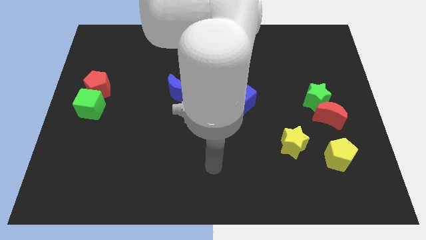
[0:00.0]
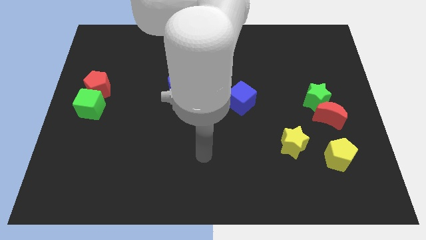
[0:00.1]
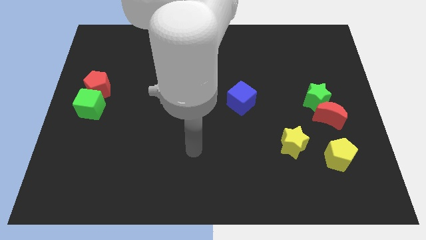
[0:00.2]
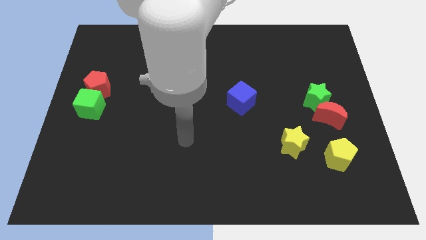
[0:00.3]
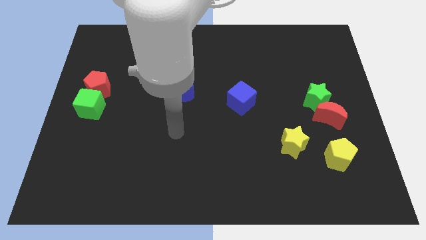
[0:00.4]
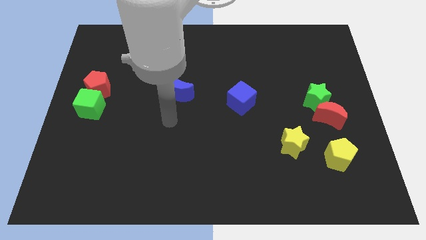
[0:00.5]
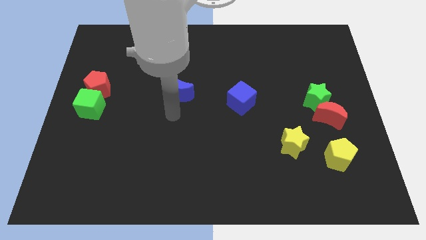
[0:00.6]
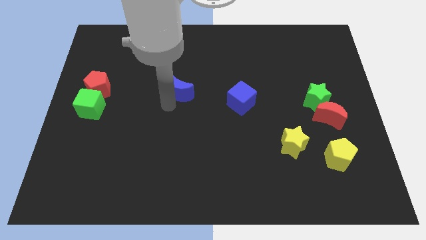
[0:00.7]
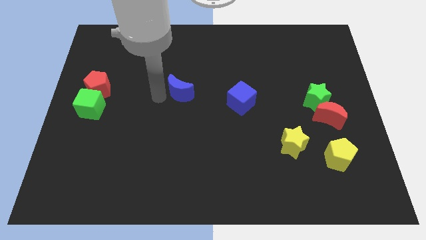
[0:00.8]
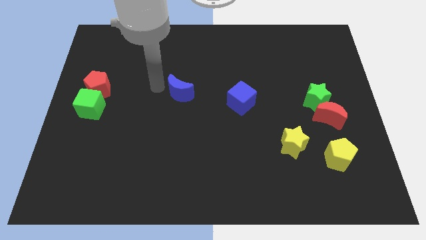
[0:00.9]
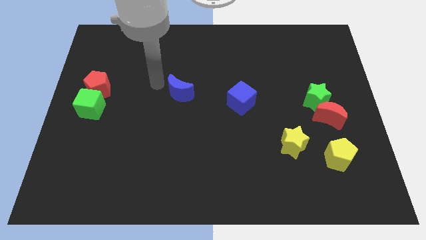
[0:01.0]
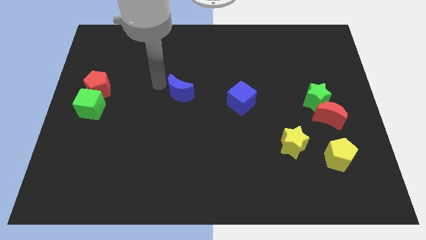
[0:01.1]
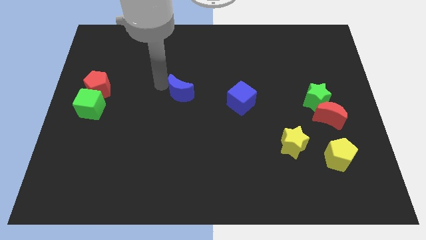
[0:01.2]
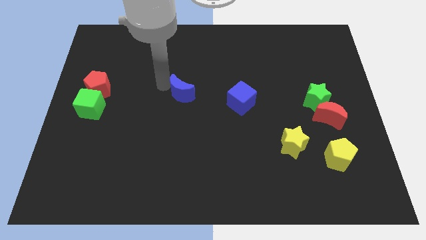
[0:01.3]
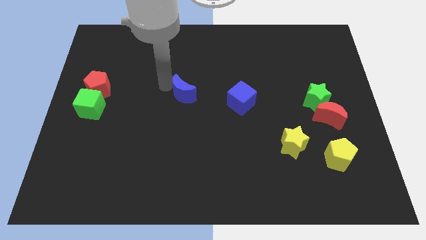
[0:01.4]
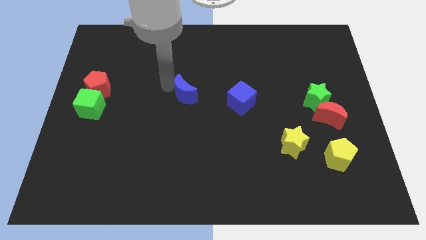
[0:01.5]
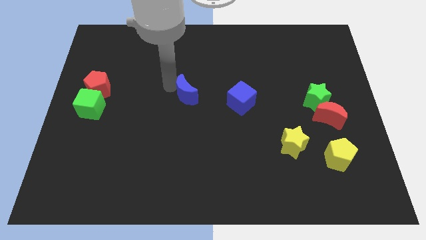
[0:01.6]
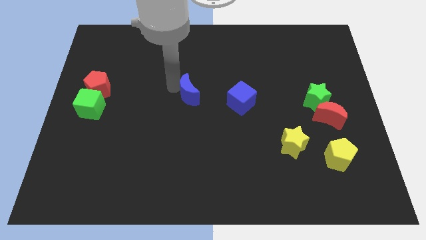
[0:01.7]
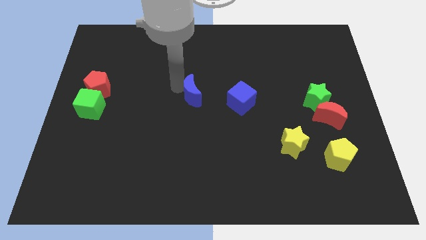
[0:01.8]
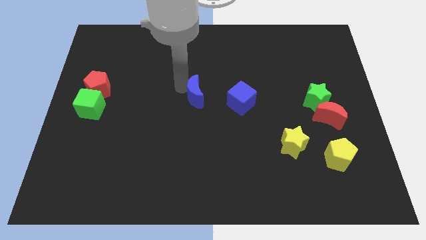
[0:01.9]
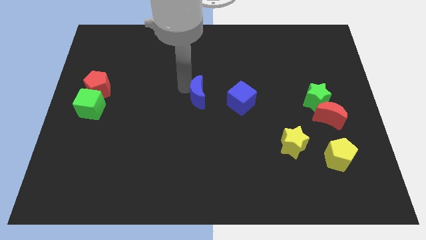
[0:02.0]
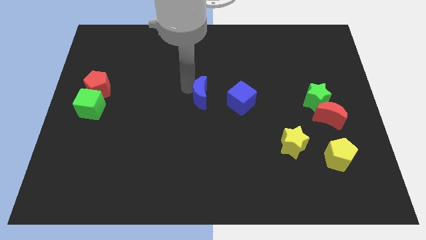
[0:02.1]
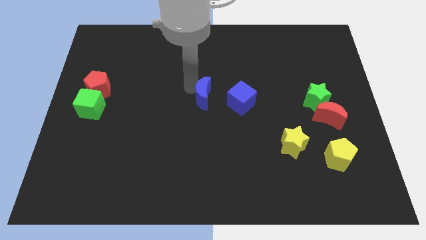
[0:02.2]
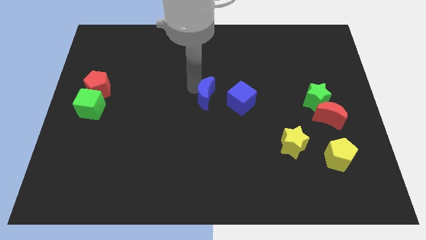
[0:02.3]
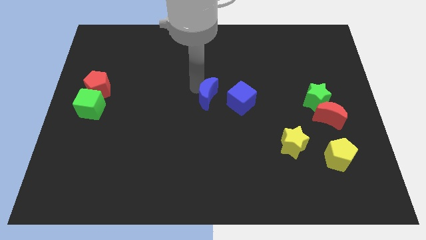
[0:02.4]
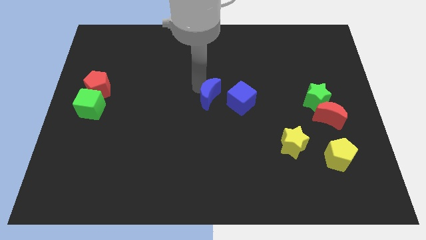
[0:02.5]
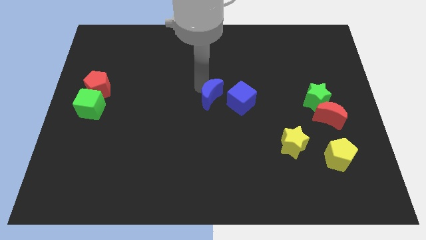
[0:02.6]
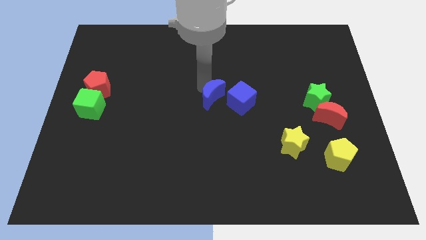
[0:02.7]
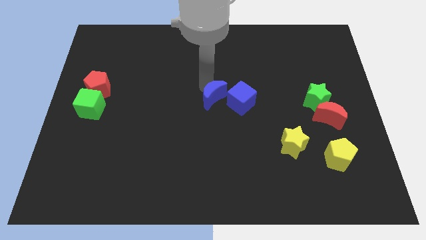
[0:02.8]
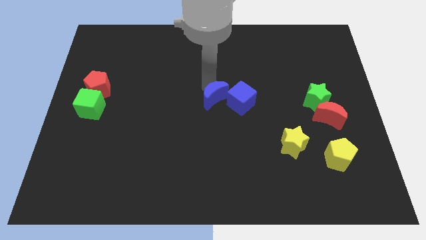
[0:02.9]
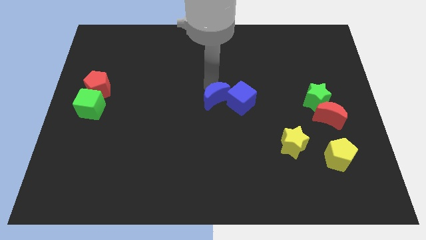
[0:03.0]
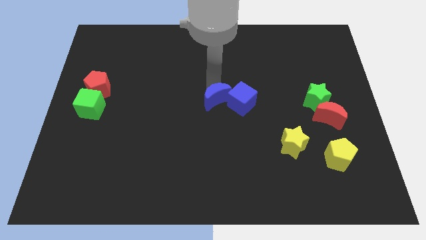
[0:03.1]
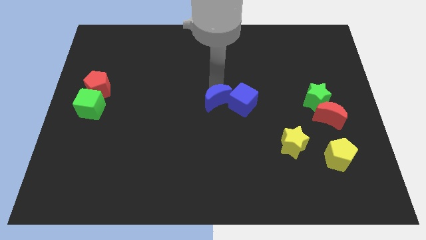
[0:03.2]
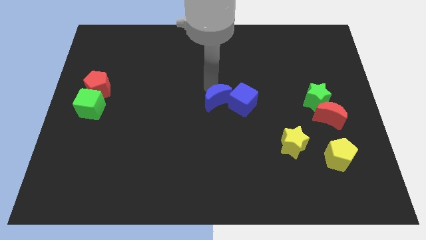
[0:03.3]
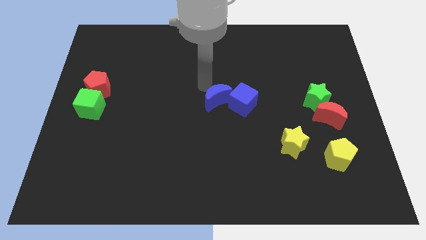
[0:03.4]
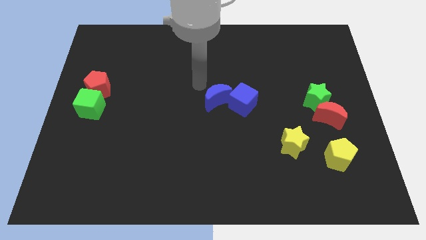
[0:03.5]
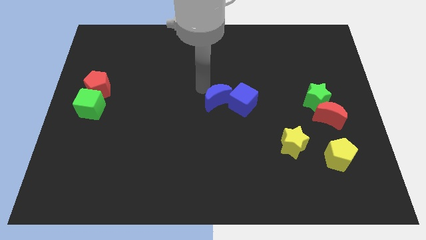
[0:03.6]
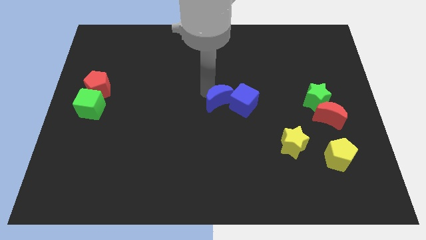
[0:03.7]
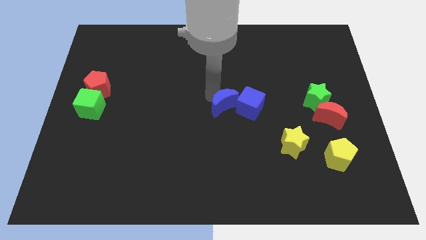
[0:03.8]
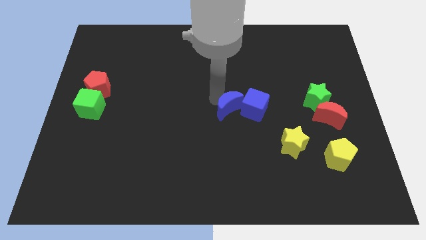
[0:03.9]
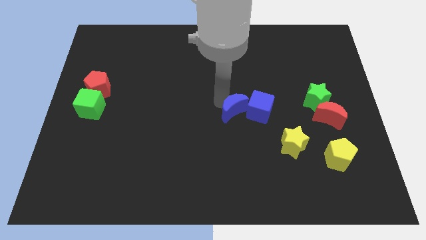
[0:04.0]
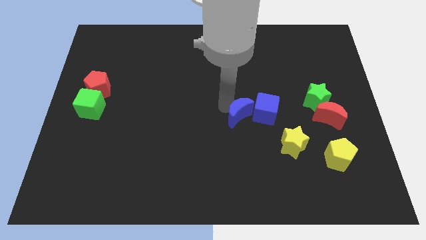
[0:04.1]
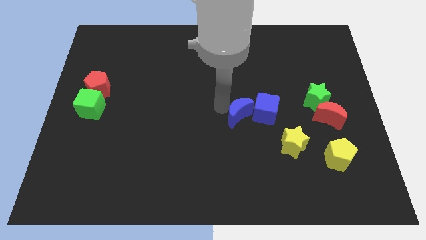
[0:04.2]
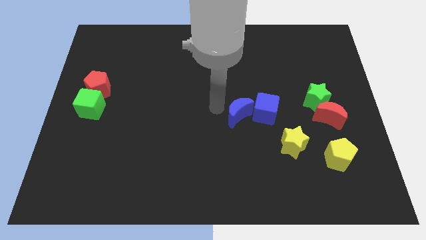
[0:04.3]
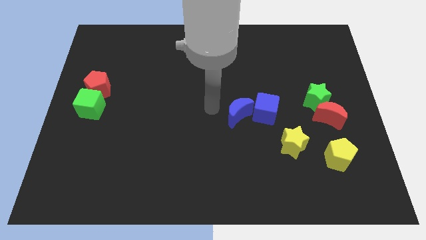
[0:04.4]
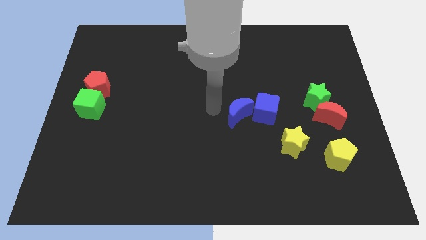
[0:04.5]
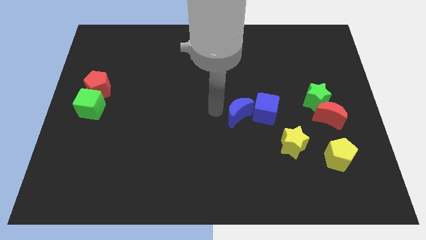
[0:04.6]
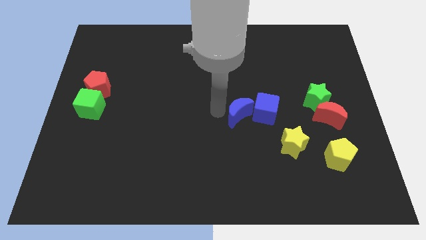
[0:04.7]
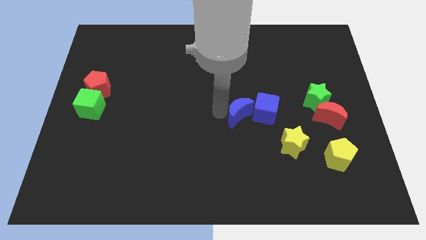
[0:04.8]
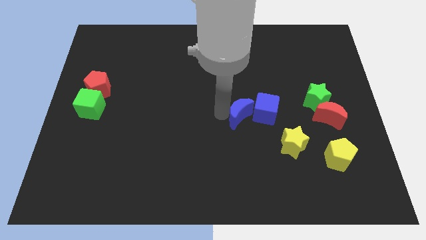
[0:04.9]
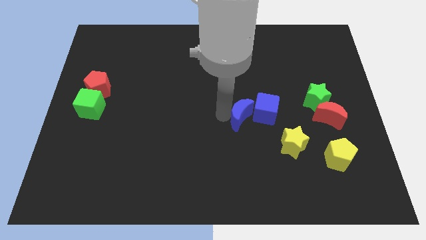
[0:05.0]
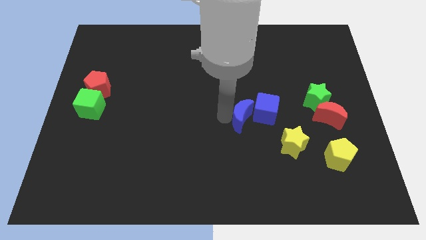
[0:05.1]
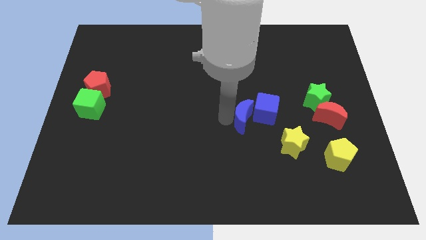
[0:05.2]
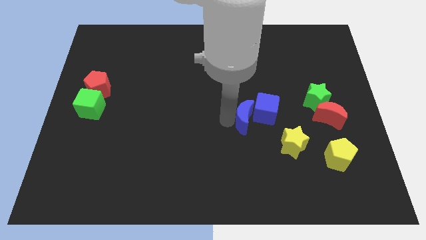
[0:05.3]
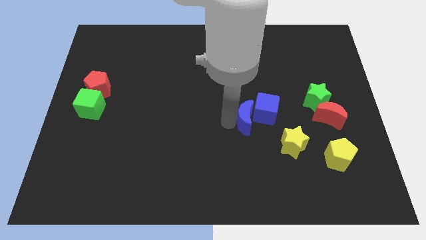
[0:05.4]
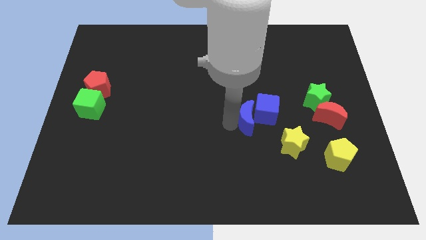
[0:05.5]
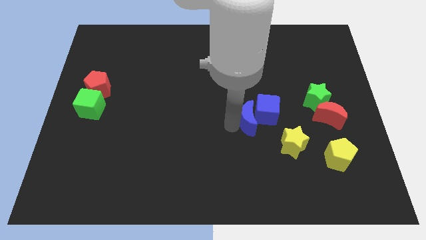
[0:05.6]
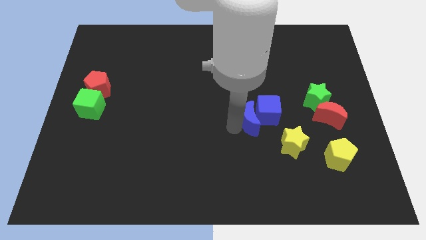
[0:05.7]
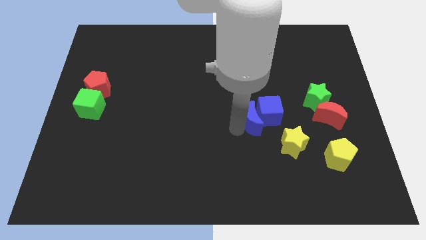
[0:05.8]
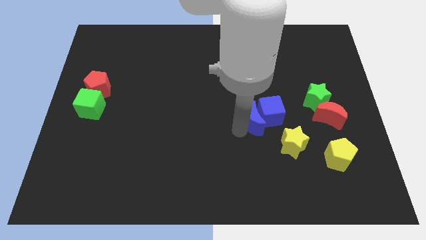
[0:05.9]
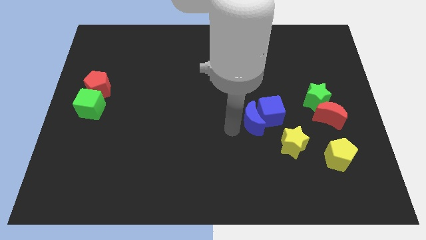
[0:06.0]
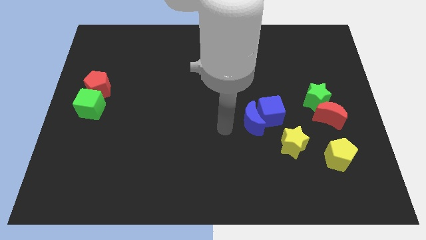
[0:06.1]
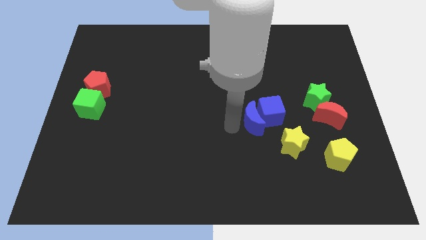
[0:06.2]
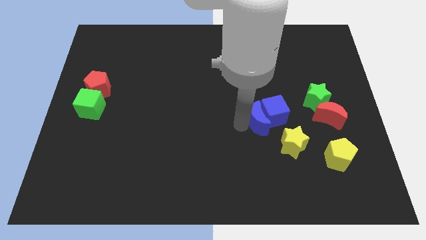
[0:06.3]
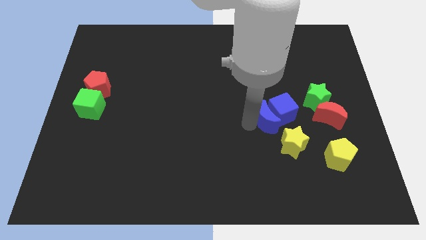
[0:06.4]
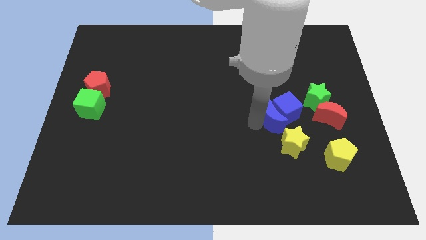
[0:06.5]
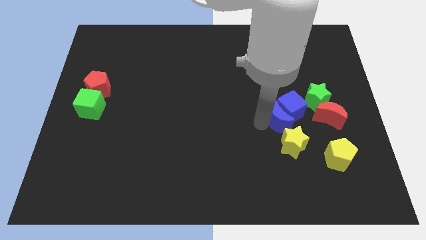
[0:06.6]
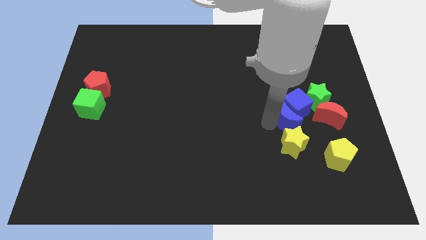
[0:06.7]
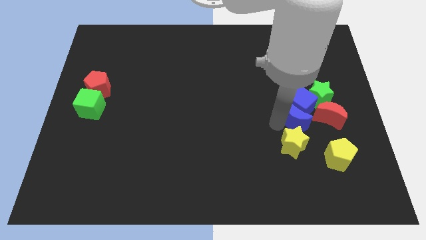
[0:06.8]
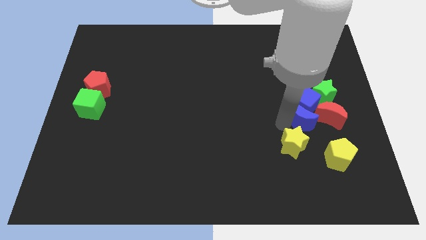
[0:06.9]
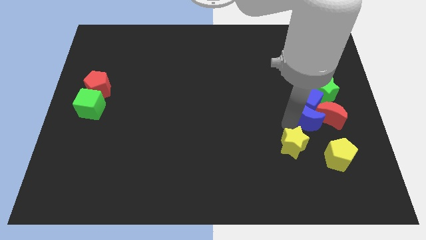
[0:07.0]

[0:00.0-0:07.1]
push the blue moon towards the red moon

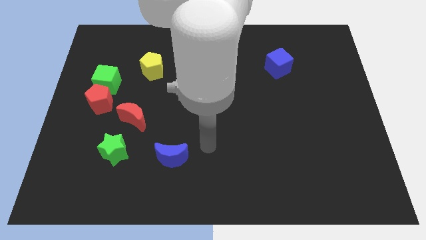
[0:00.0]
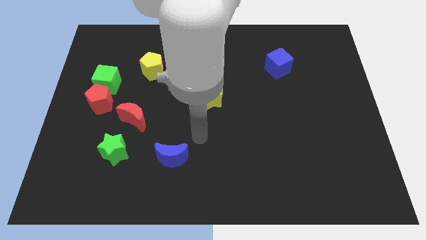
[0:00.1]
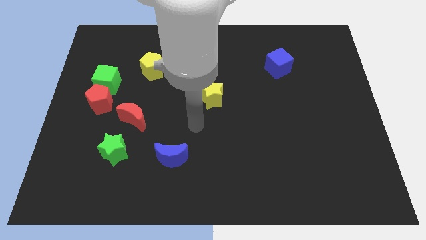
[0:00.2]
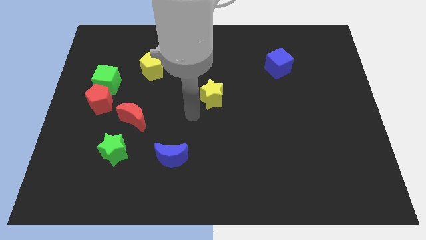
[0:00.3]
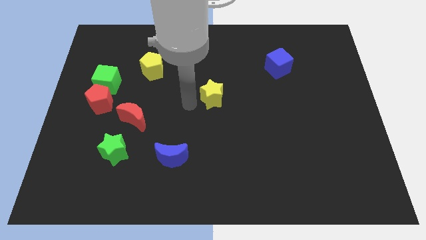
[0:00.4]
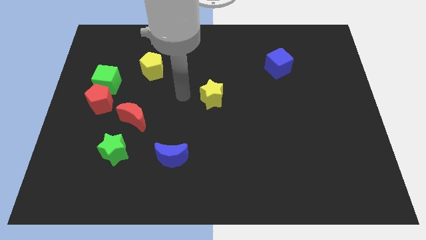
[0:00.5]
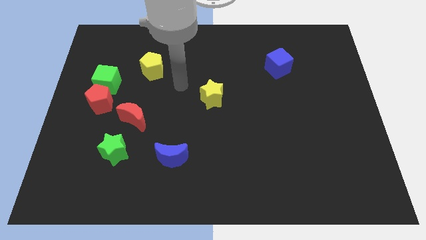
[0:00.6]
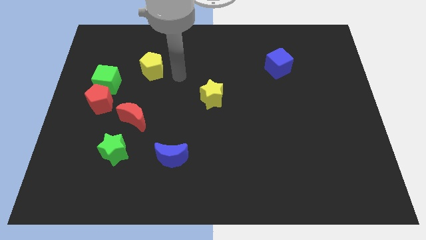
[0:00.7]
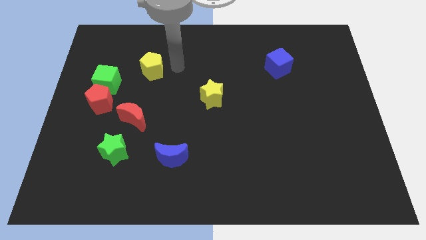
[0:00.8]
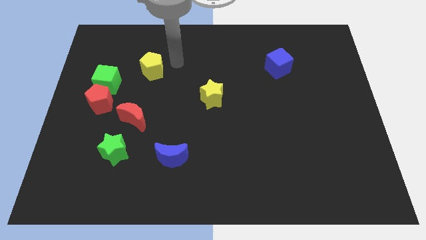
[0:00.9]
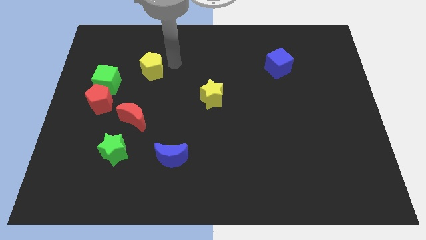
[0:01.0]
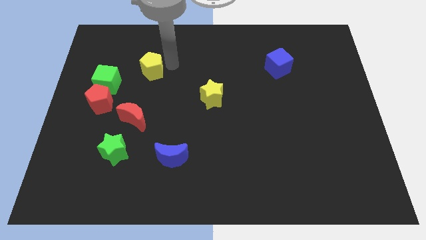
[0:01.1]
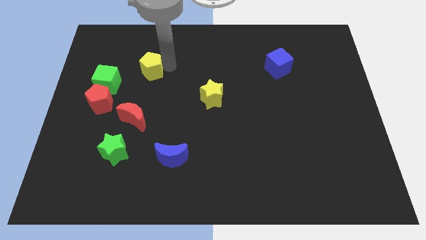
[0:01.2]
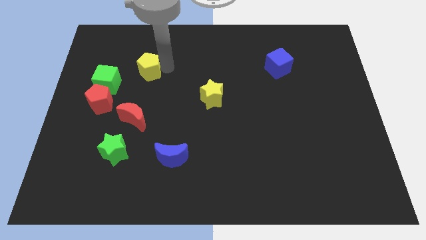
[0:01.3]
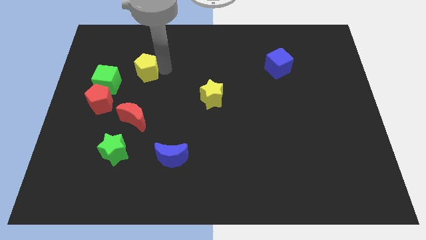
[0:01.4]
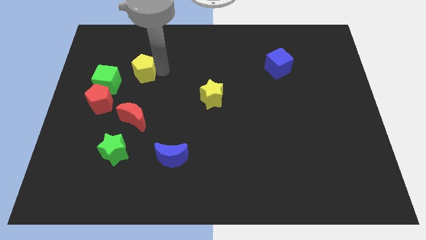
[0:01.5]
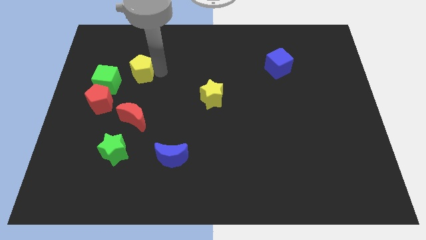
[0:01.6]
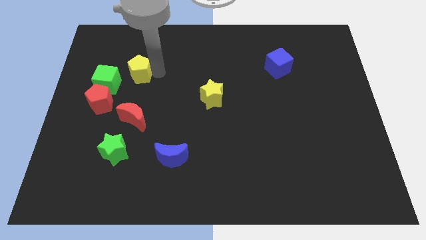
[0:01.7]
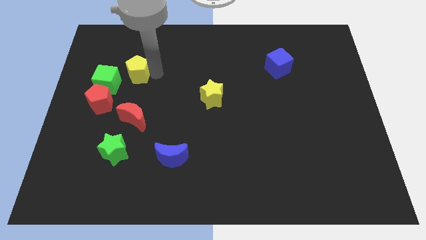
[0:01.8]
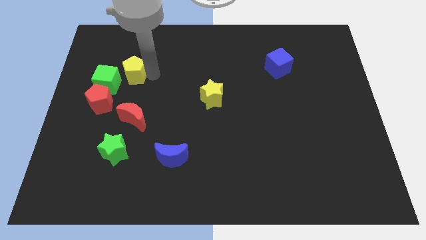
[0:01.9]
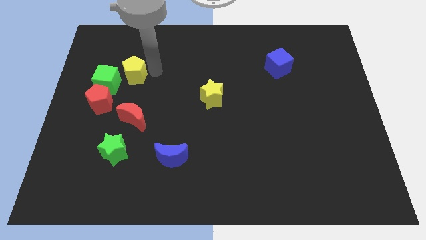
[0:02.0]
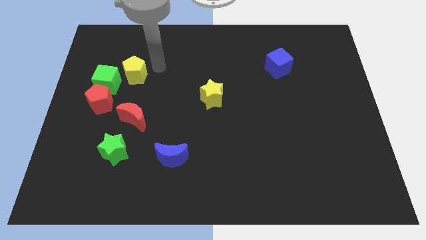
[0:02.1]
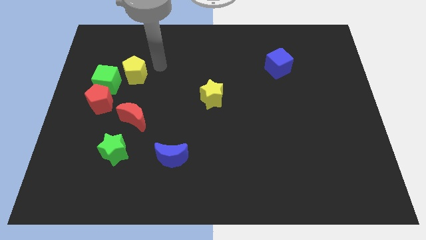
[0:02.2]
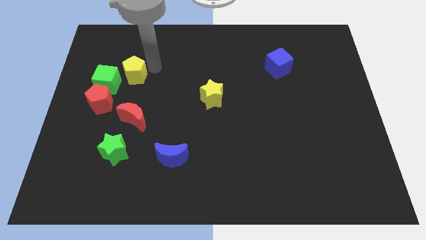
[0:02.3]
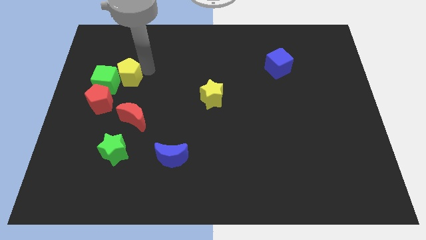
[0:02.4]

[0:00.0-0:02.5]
move the yellow pentagon towards the green cube
